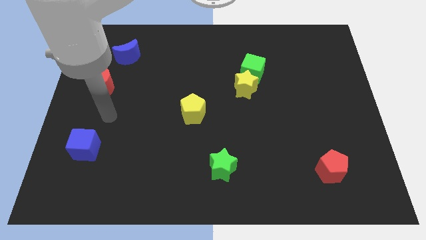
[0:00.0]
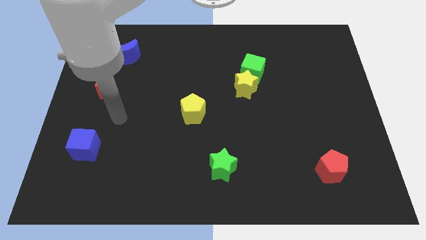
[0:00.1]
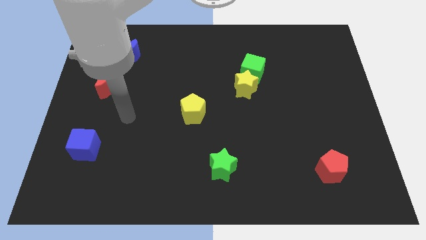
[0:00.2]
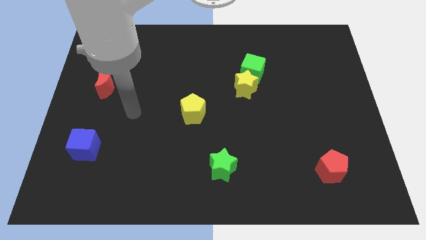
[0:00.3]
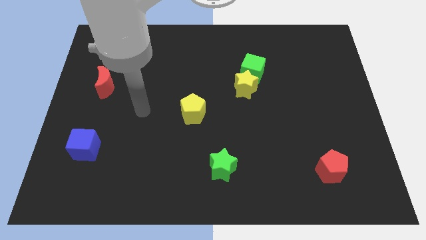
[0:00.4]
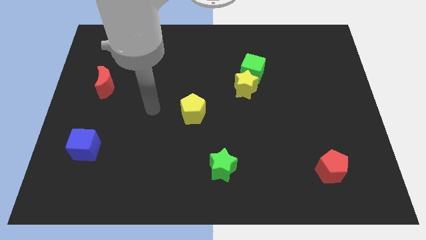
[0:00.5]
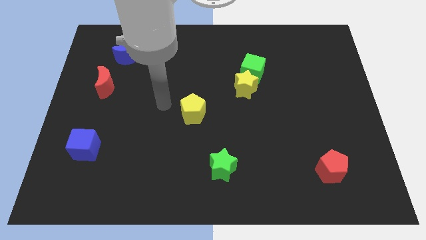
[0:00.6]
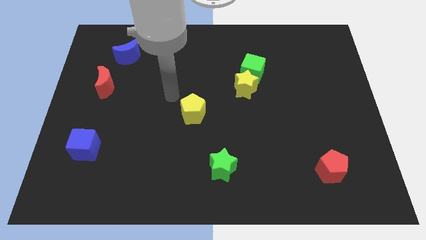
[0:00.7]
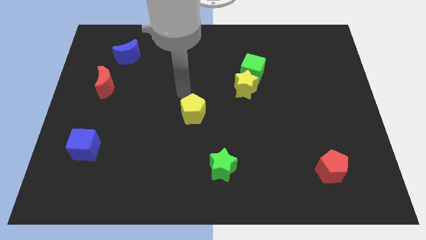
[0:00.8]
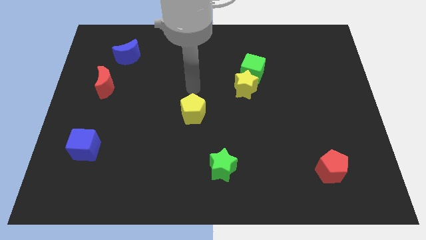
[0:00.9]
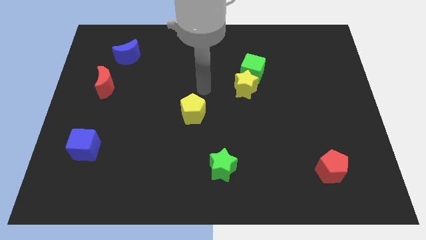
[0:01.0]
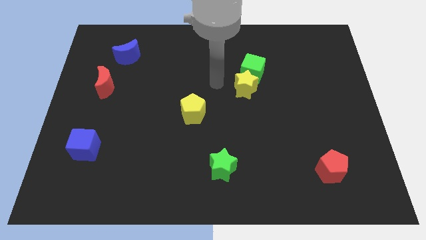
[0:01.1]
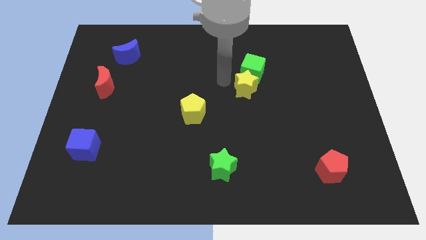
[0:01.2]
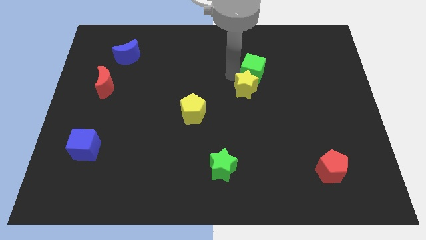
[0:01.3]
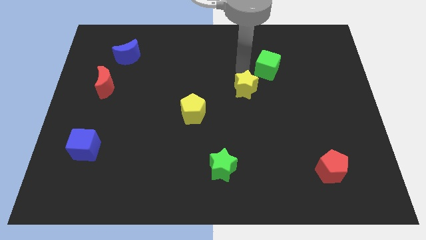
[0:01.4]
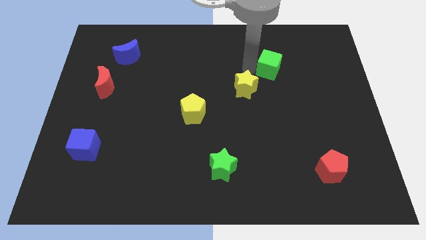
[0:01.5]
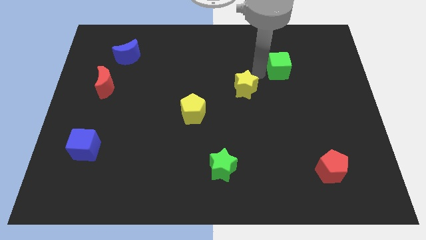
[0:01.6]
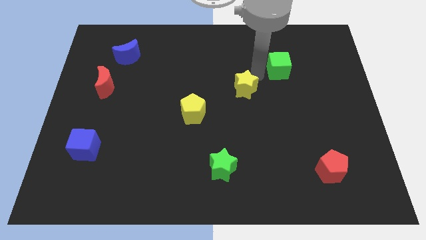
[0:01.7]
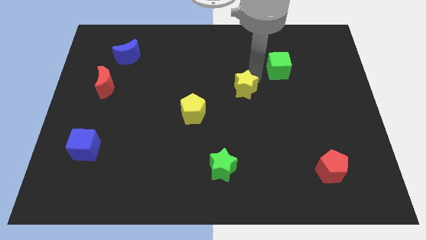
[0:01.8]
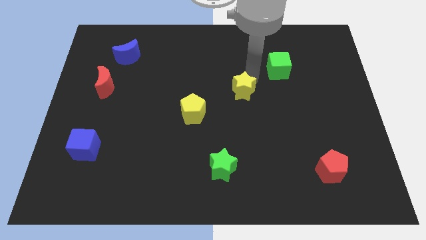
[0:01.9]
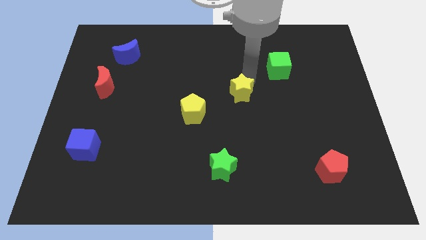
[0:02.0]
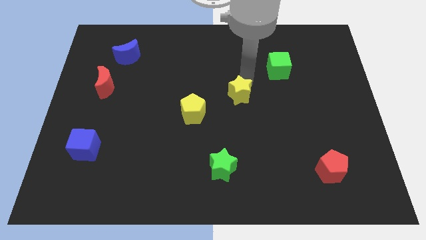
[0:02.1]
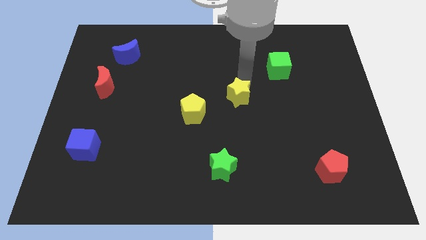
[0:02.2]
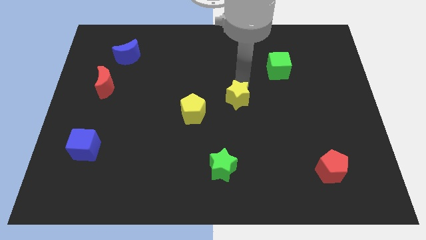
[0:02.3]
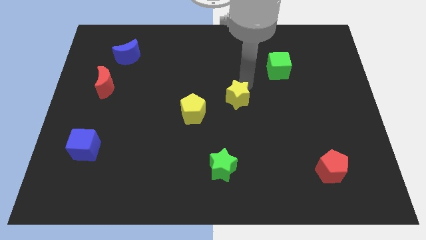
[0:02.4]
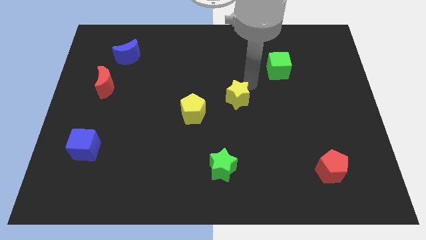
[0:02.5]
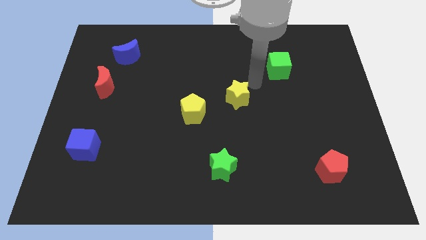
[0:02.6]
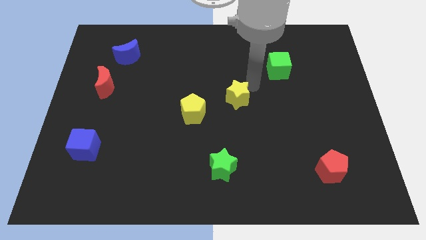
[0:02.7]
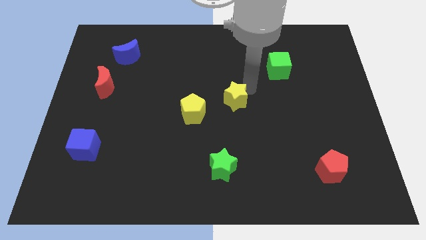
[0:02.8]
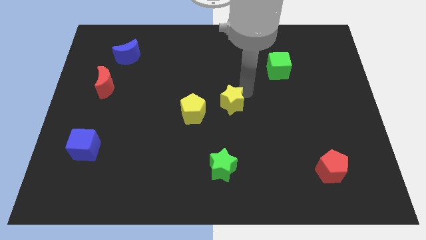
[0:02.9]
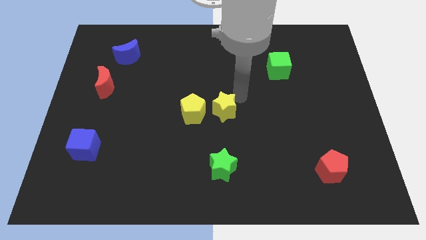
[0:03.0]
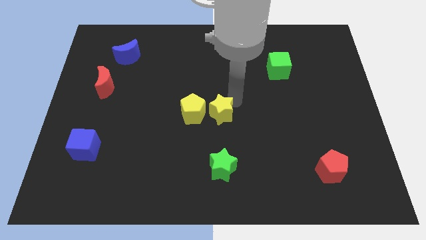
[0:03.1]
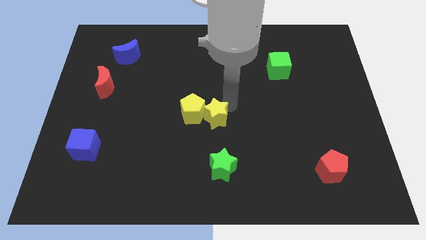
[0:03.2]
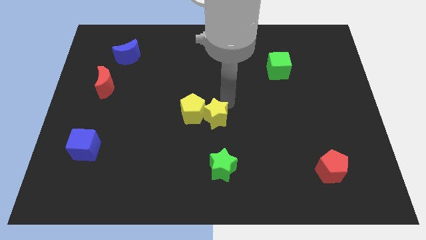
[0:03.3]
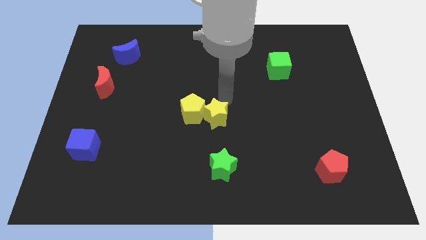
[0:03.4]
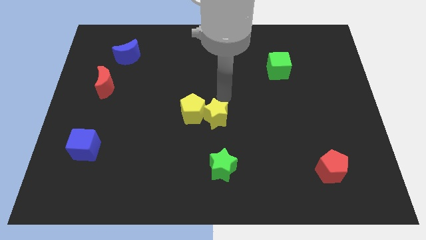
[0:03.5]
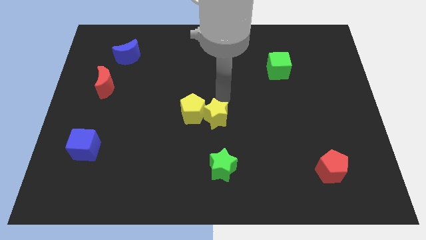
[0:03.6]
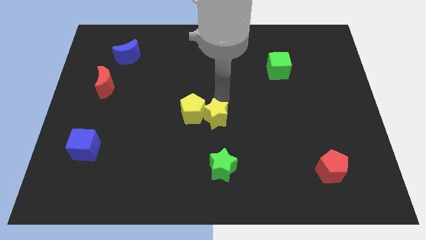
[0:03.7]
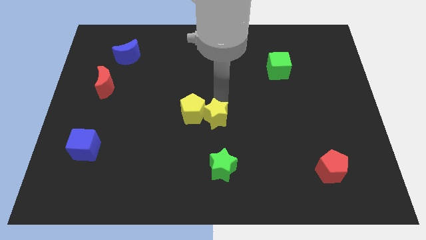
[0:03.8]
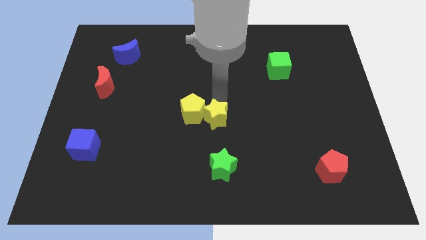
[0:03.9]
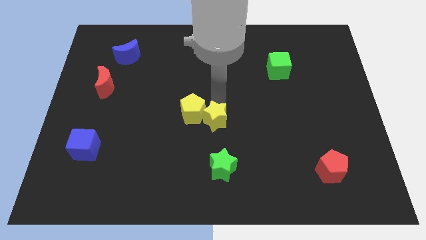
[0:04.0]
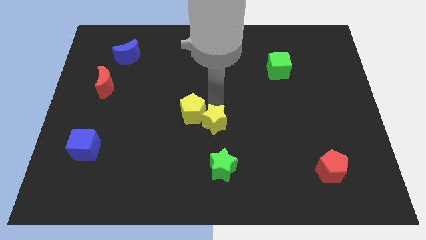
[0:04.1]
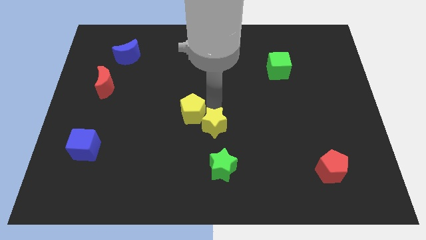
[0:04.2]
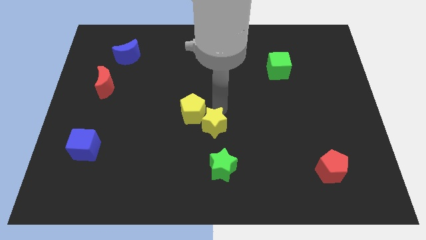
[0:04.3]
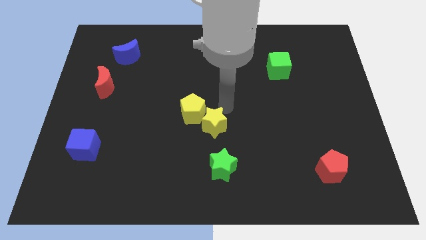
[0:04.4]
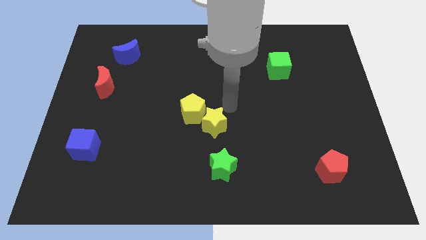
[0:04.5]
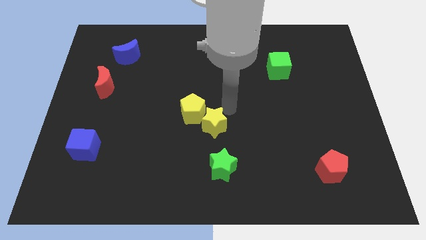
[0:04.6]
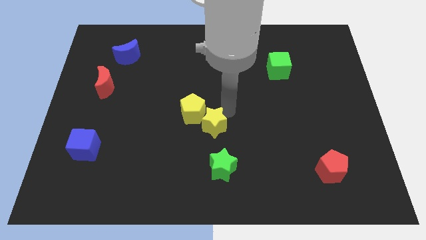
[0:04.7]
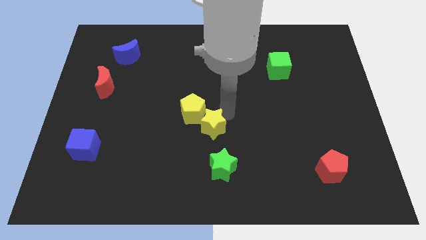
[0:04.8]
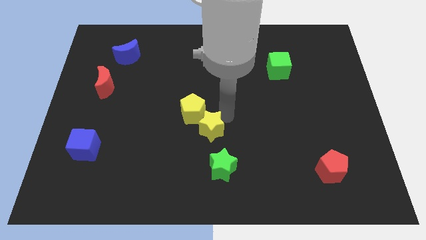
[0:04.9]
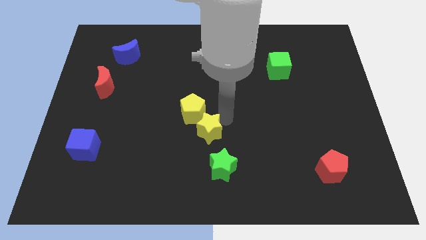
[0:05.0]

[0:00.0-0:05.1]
push the yellow star diagonally up and to the left of the green star

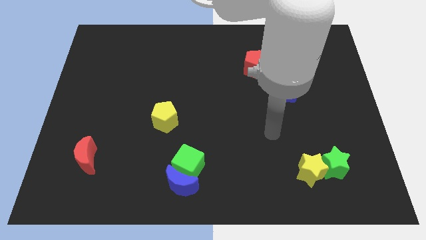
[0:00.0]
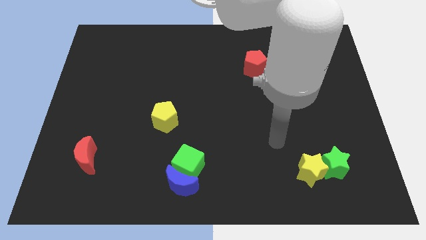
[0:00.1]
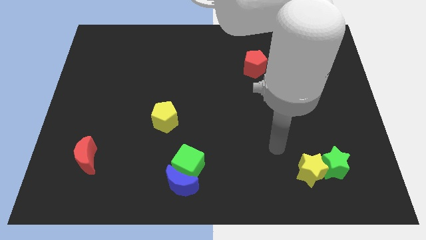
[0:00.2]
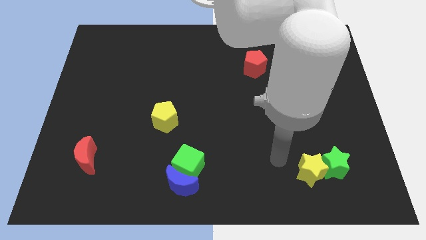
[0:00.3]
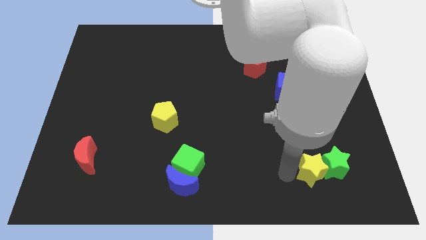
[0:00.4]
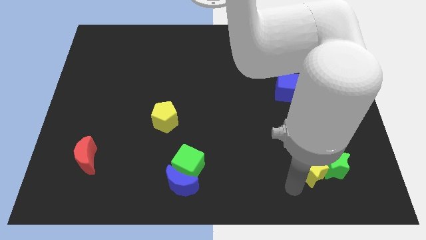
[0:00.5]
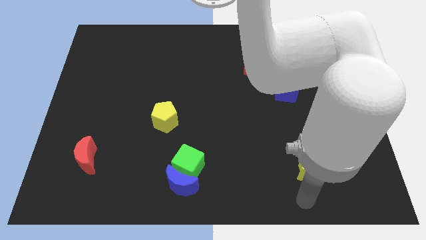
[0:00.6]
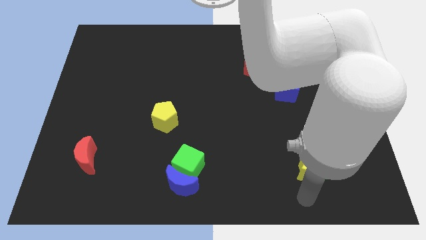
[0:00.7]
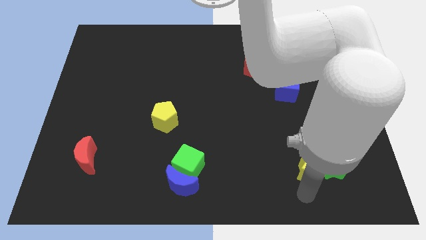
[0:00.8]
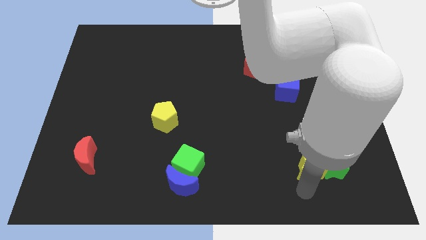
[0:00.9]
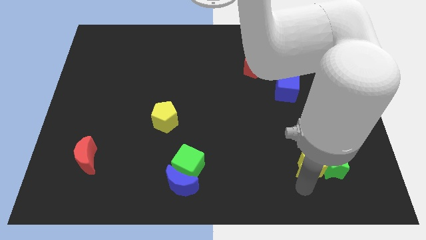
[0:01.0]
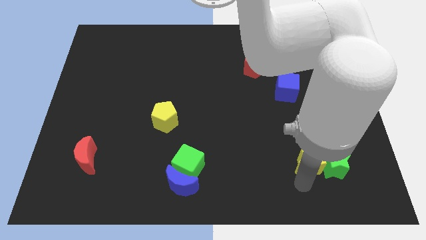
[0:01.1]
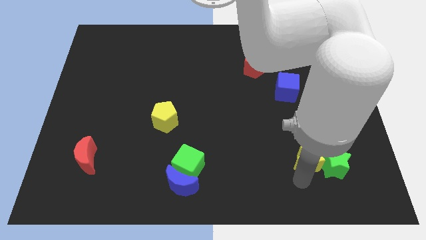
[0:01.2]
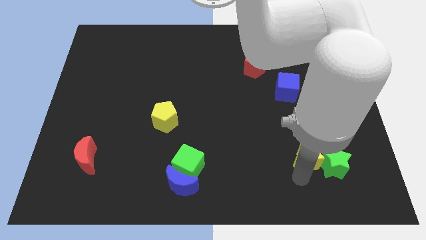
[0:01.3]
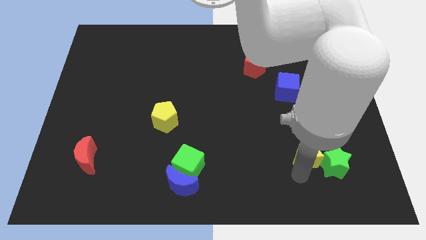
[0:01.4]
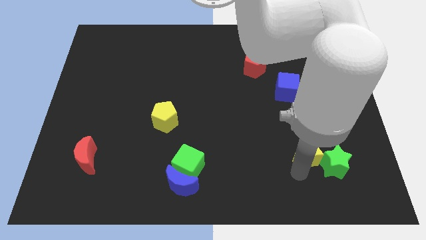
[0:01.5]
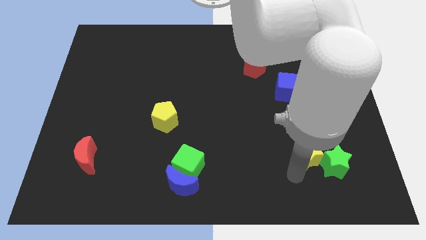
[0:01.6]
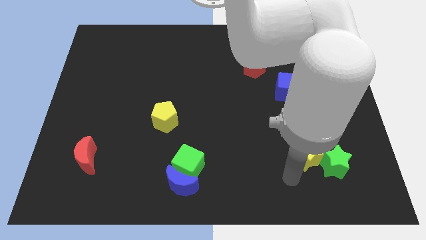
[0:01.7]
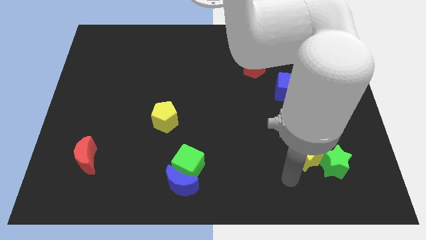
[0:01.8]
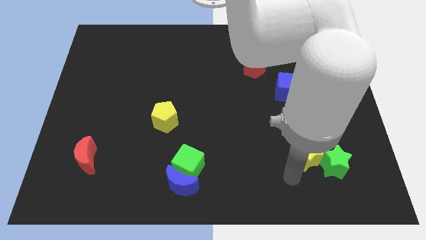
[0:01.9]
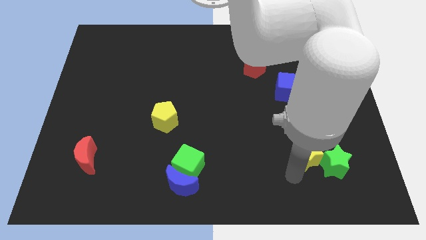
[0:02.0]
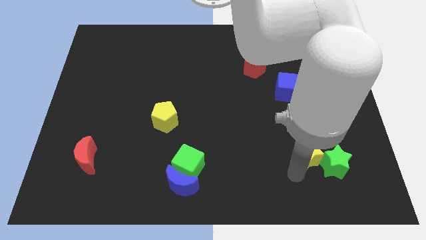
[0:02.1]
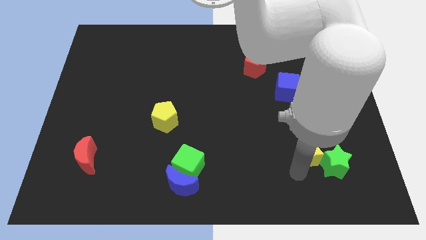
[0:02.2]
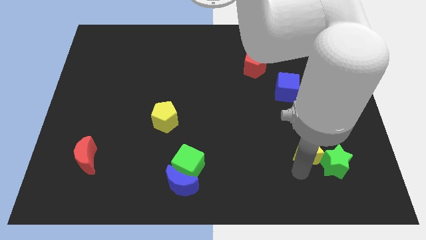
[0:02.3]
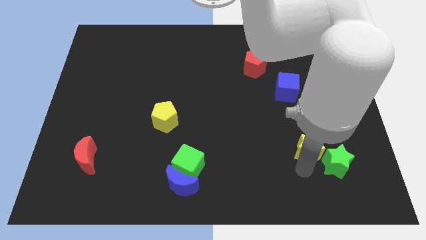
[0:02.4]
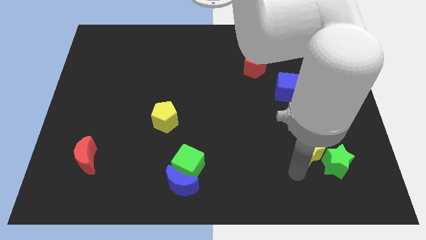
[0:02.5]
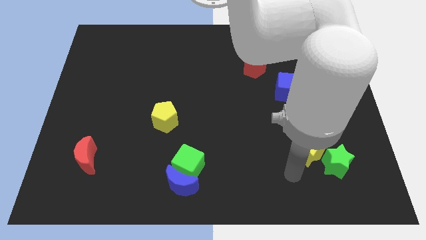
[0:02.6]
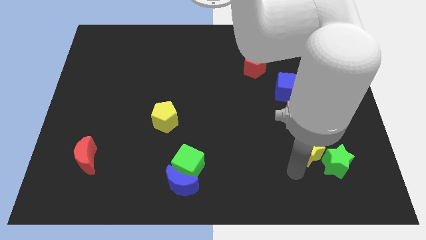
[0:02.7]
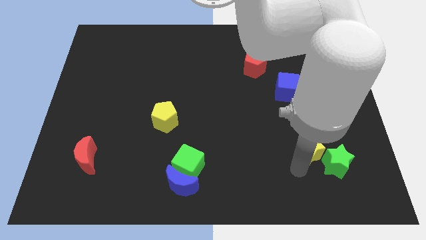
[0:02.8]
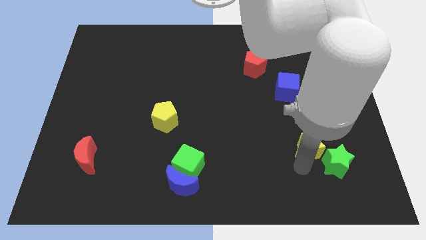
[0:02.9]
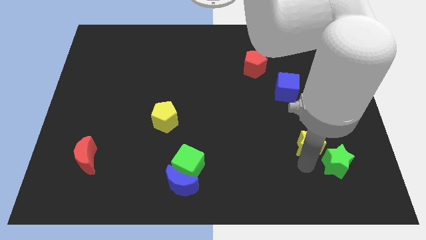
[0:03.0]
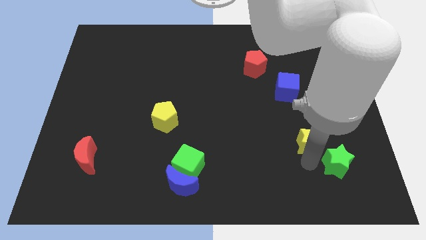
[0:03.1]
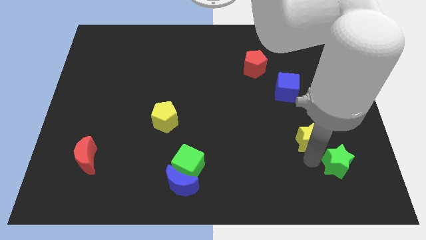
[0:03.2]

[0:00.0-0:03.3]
move the yellow star to the top side of the green star
